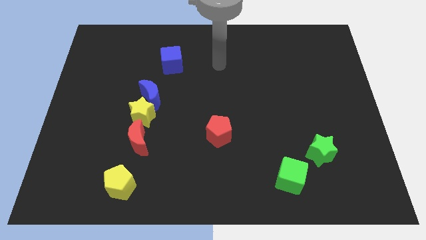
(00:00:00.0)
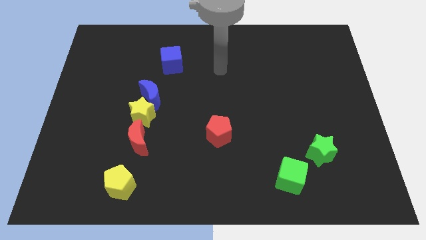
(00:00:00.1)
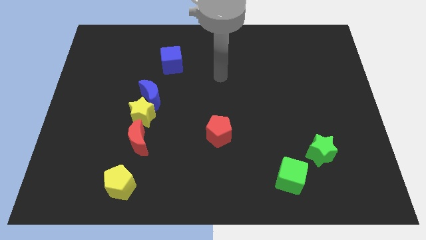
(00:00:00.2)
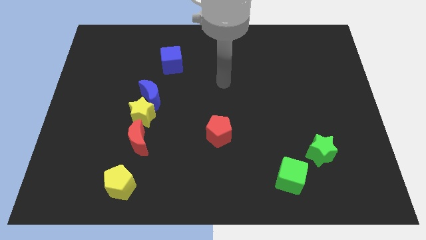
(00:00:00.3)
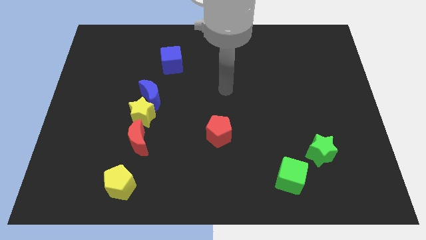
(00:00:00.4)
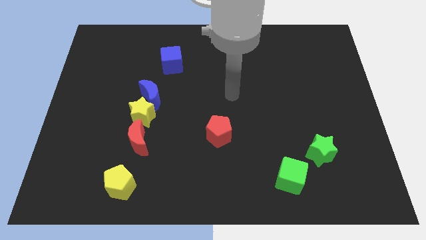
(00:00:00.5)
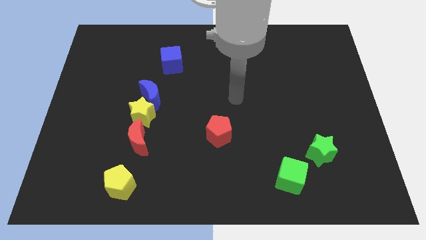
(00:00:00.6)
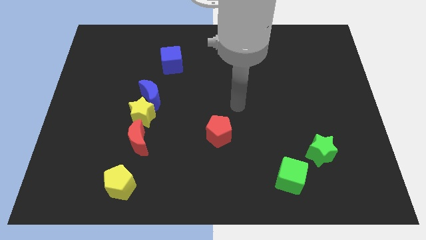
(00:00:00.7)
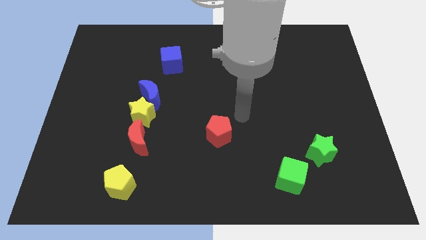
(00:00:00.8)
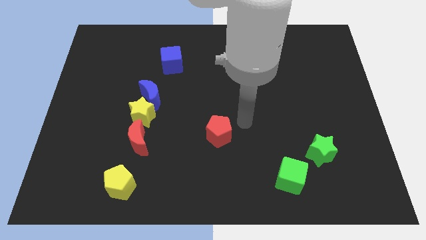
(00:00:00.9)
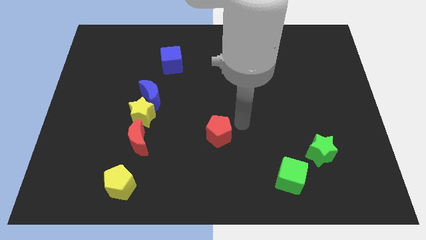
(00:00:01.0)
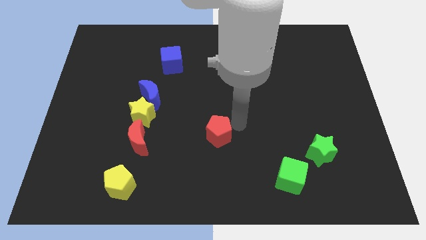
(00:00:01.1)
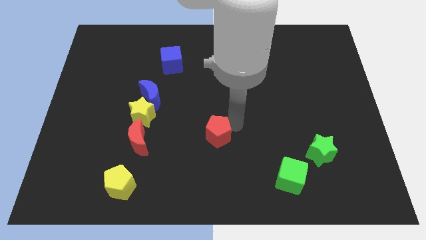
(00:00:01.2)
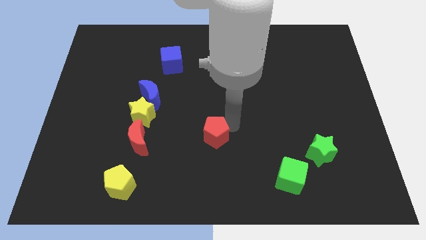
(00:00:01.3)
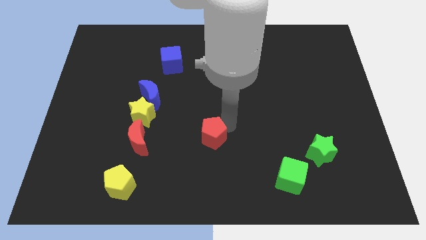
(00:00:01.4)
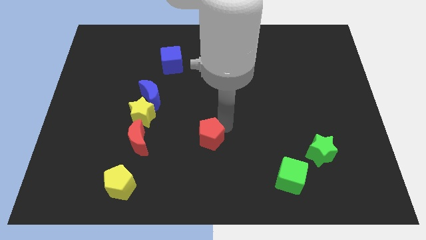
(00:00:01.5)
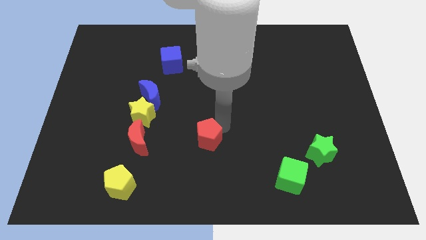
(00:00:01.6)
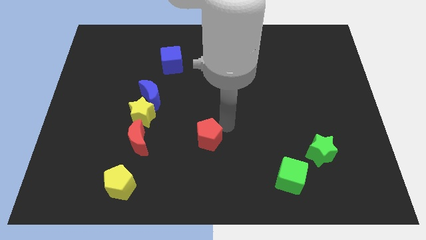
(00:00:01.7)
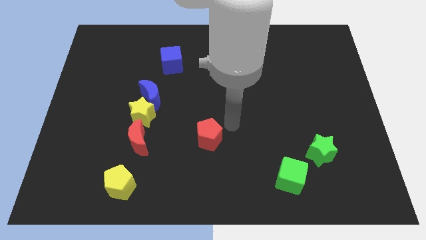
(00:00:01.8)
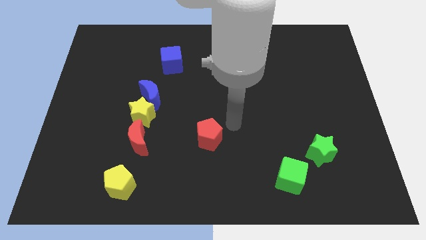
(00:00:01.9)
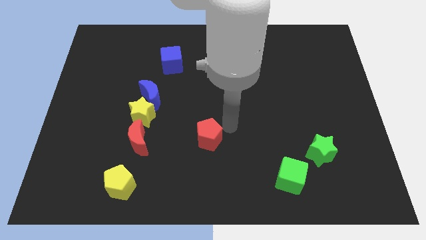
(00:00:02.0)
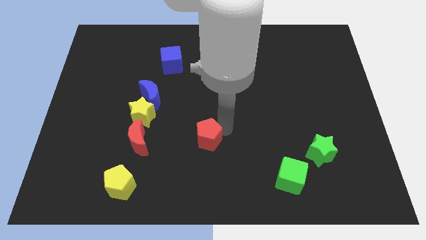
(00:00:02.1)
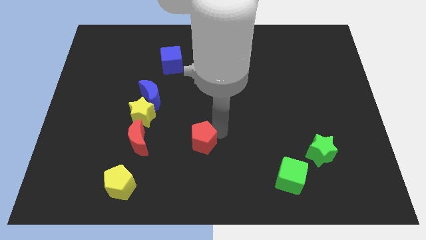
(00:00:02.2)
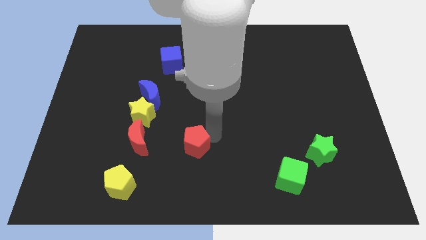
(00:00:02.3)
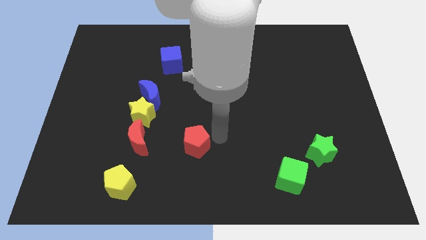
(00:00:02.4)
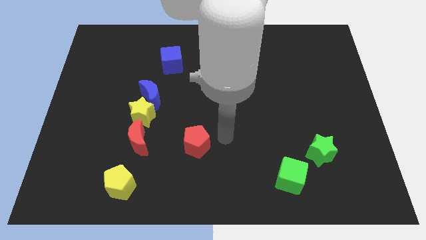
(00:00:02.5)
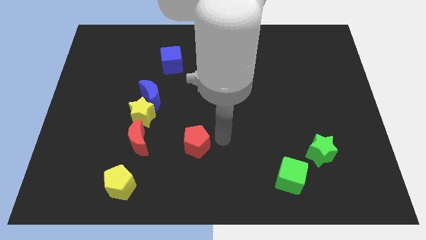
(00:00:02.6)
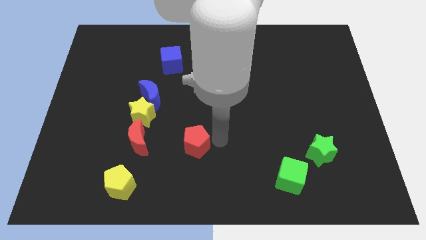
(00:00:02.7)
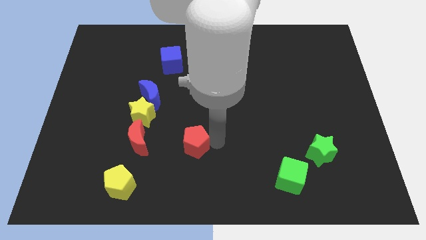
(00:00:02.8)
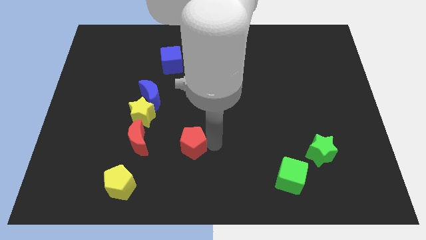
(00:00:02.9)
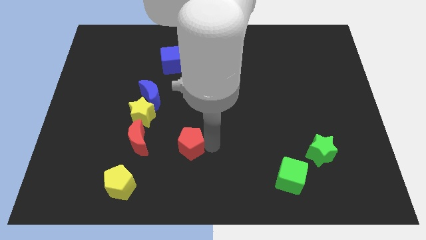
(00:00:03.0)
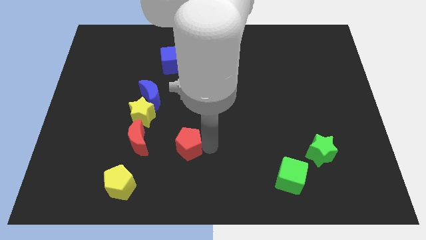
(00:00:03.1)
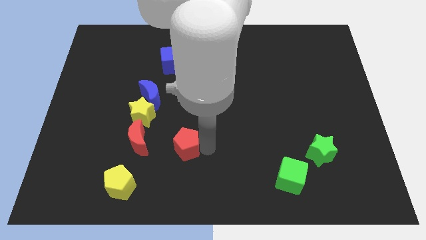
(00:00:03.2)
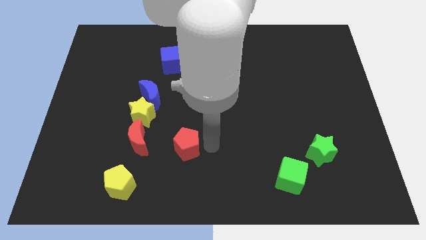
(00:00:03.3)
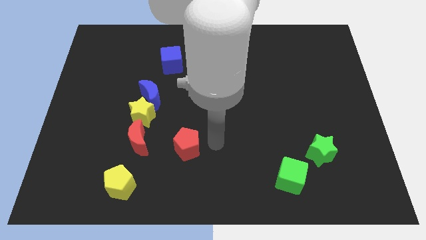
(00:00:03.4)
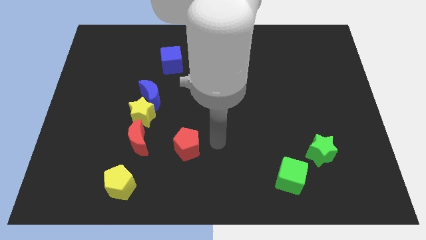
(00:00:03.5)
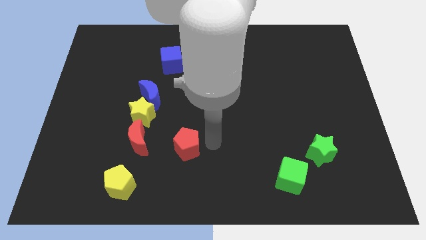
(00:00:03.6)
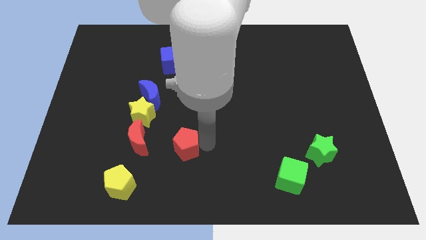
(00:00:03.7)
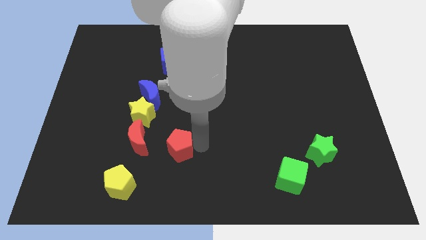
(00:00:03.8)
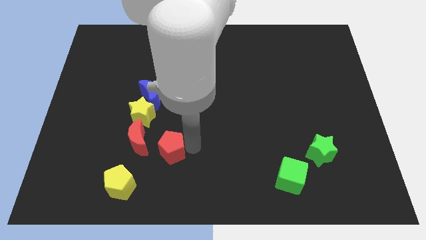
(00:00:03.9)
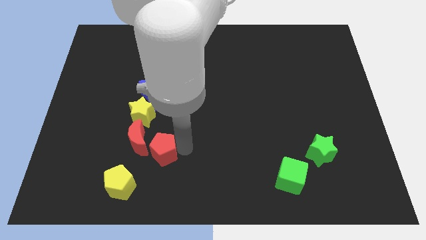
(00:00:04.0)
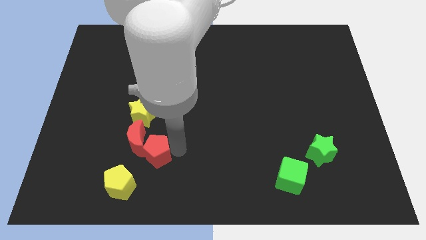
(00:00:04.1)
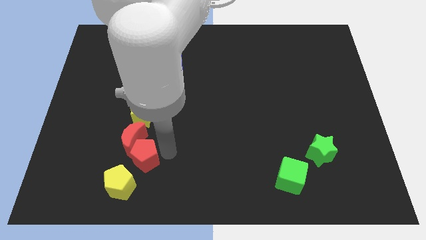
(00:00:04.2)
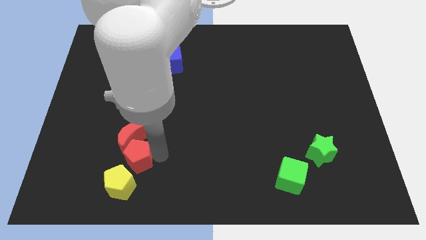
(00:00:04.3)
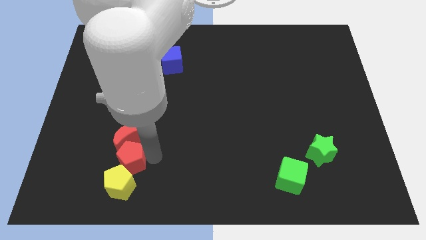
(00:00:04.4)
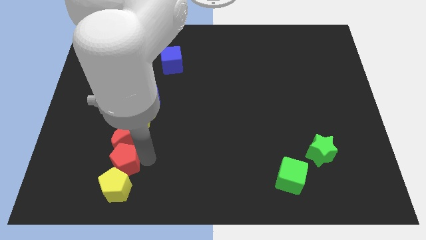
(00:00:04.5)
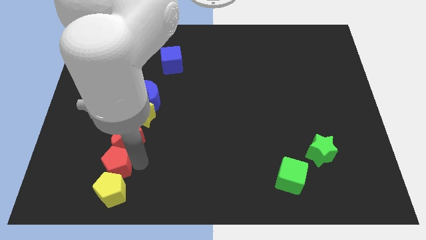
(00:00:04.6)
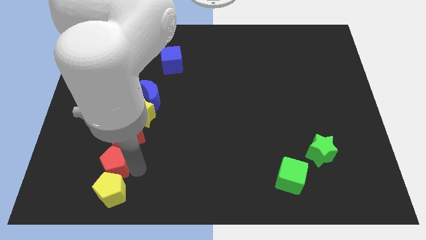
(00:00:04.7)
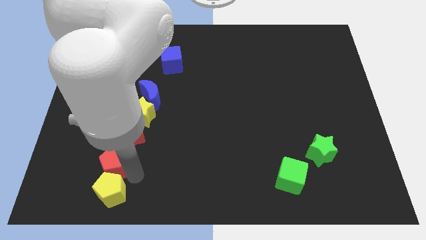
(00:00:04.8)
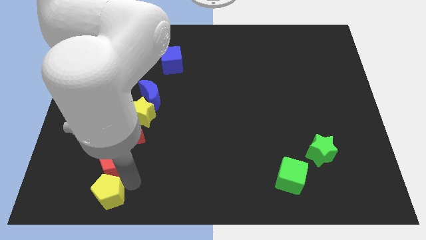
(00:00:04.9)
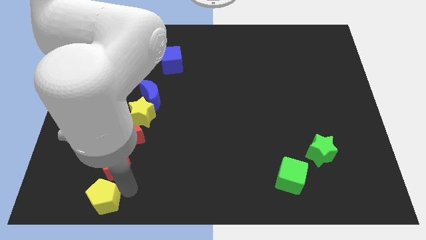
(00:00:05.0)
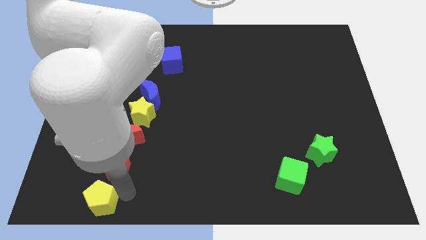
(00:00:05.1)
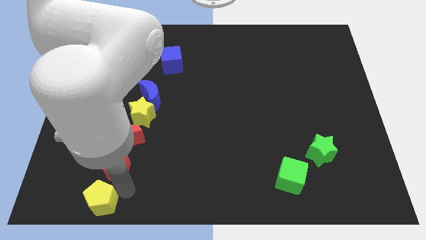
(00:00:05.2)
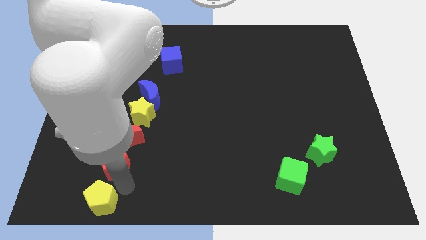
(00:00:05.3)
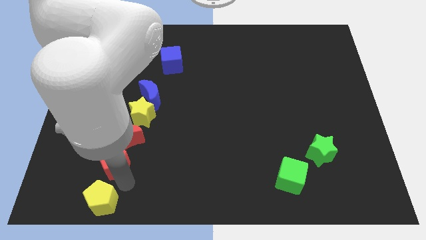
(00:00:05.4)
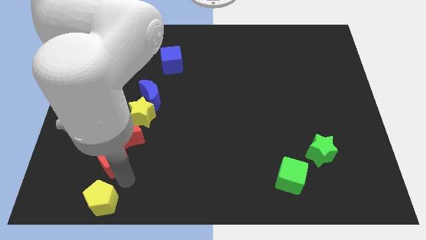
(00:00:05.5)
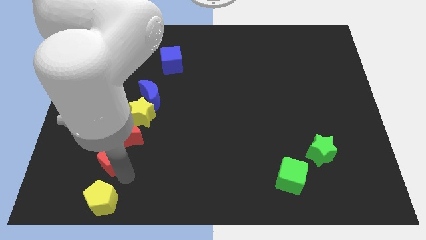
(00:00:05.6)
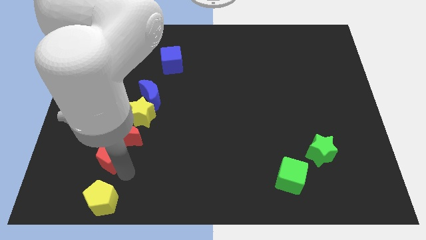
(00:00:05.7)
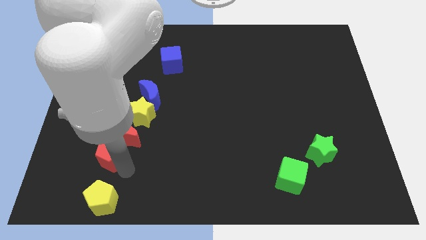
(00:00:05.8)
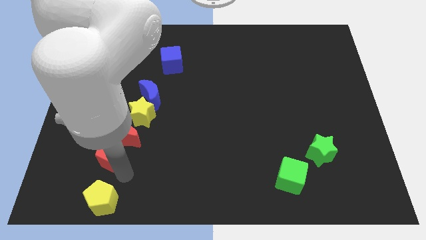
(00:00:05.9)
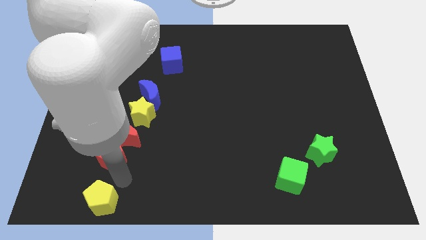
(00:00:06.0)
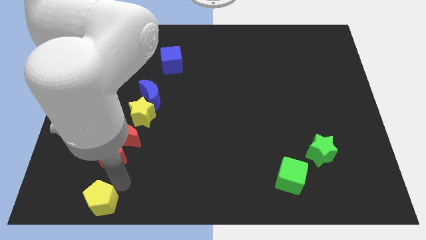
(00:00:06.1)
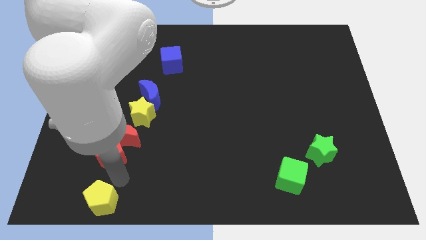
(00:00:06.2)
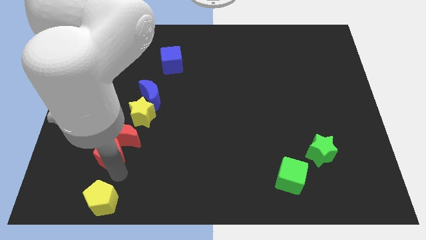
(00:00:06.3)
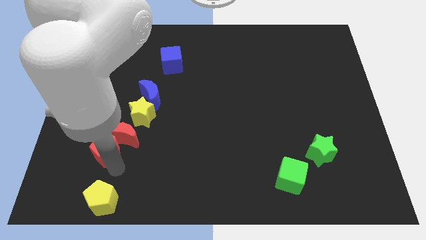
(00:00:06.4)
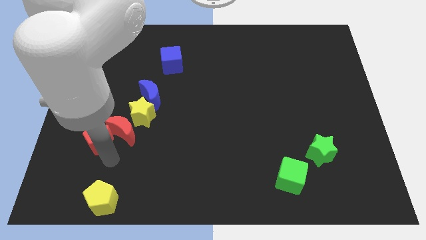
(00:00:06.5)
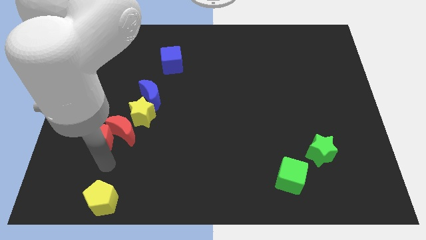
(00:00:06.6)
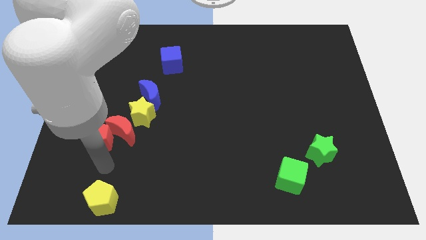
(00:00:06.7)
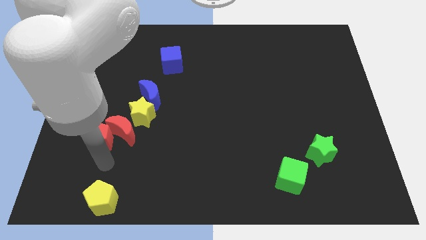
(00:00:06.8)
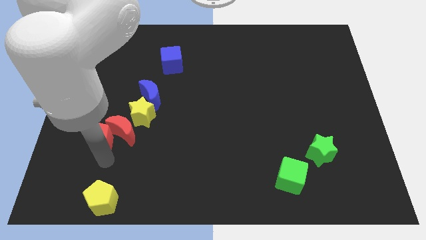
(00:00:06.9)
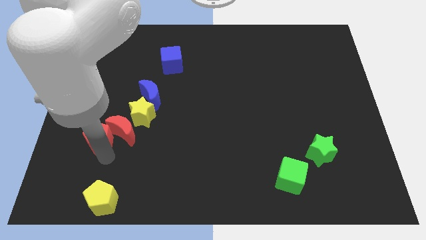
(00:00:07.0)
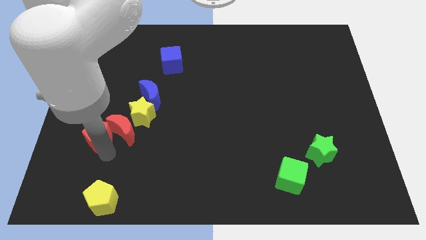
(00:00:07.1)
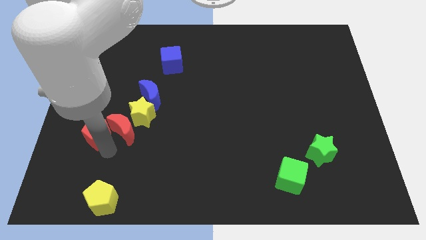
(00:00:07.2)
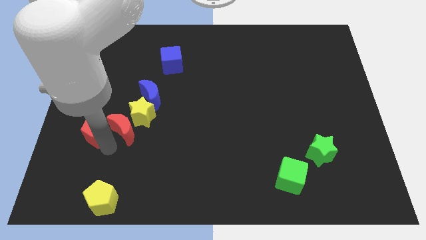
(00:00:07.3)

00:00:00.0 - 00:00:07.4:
slide the red pentagon just left of the yellow star
